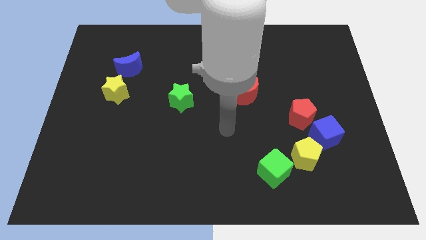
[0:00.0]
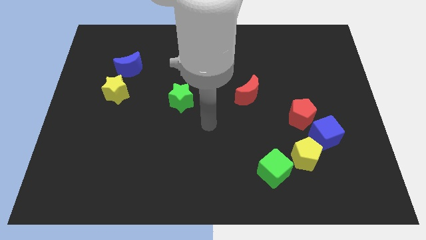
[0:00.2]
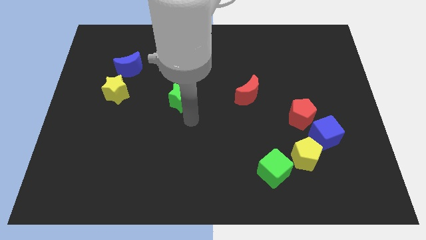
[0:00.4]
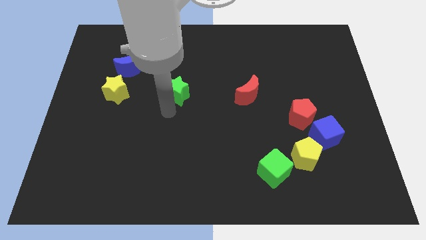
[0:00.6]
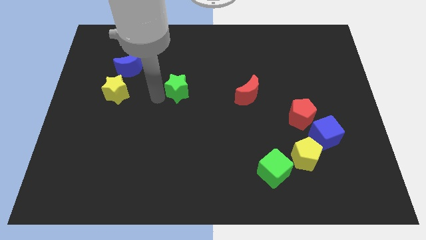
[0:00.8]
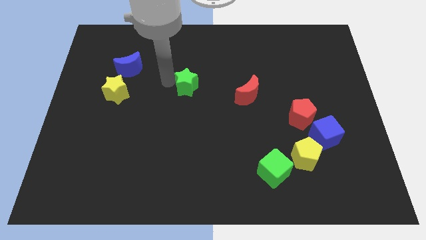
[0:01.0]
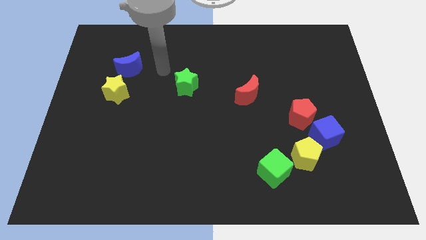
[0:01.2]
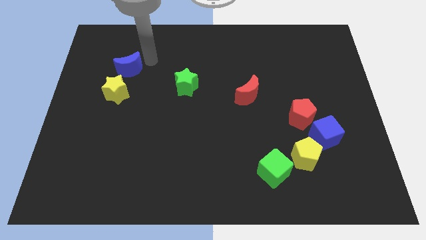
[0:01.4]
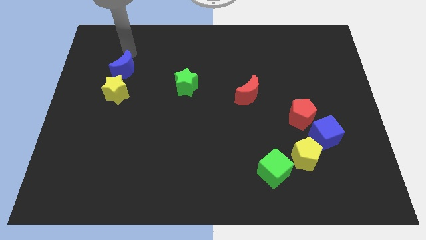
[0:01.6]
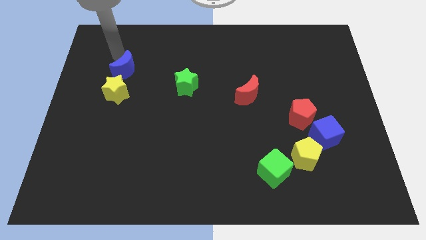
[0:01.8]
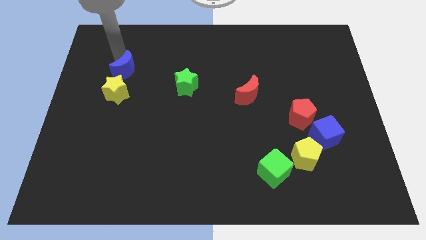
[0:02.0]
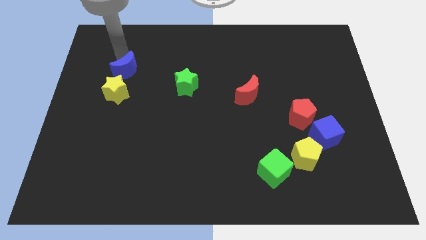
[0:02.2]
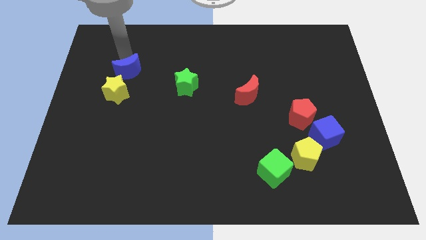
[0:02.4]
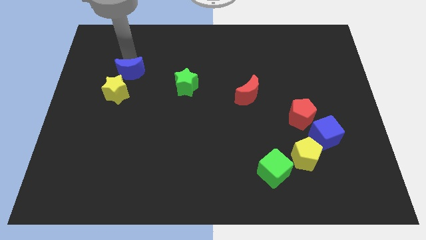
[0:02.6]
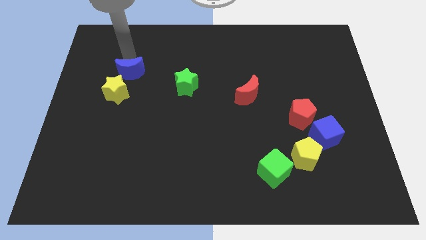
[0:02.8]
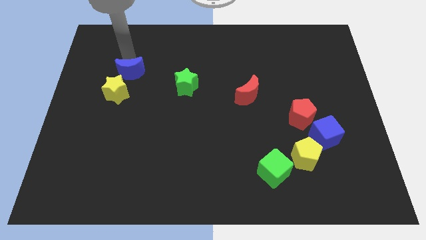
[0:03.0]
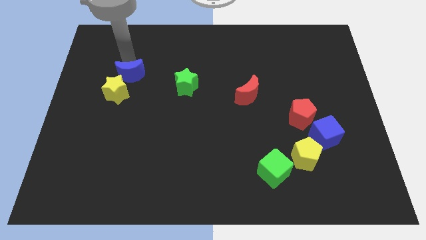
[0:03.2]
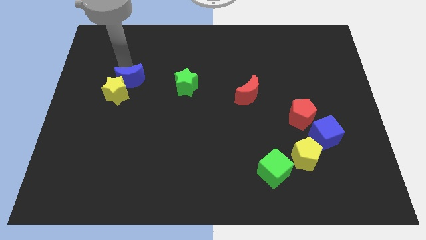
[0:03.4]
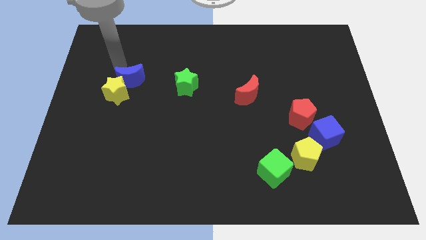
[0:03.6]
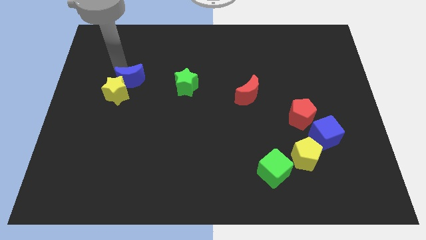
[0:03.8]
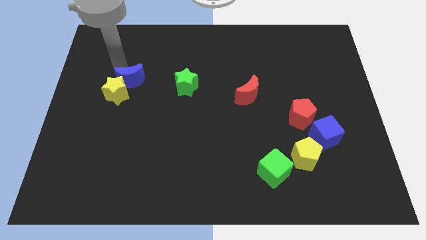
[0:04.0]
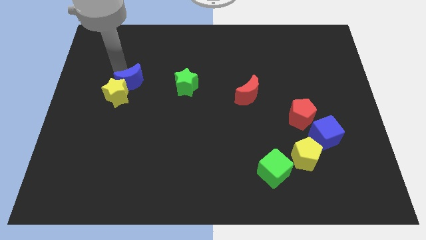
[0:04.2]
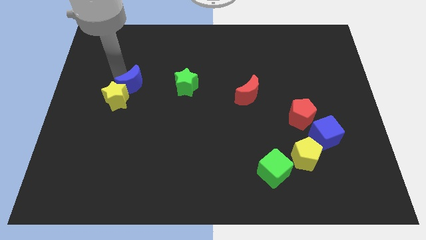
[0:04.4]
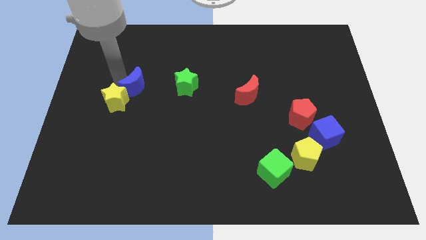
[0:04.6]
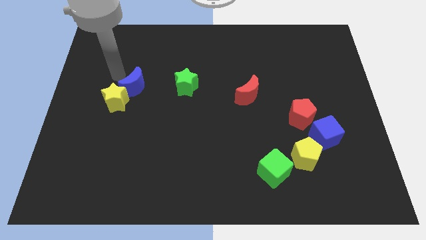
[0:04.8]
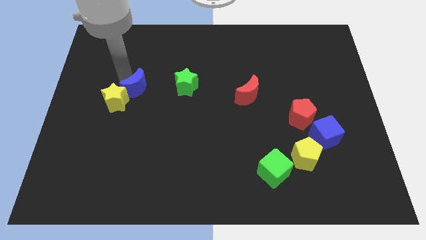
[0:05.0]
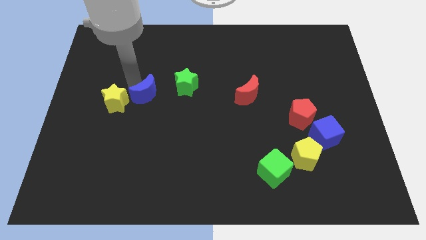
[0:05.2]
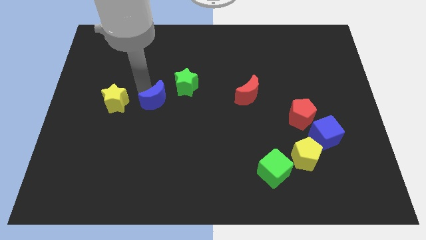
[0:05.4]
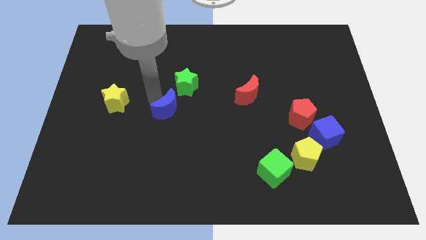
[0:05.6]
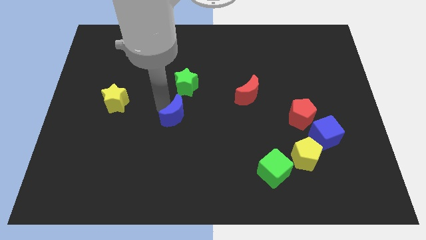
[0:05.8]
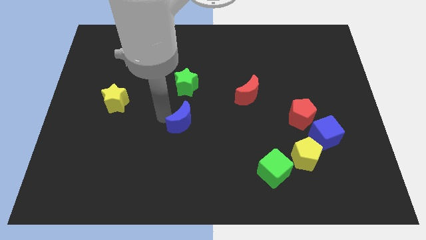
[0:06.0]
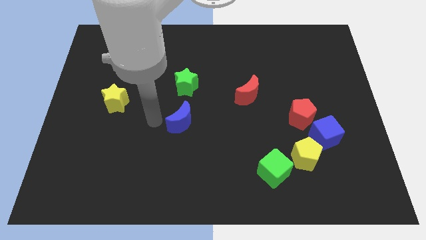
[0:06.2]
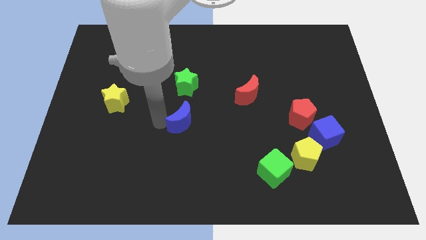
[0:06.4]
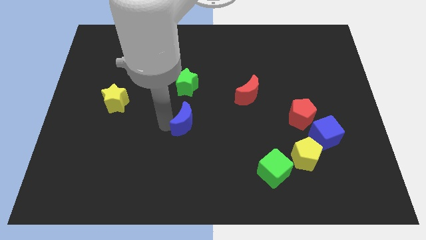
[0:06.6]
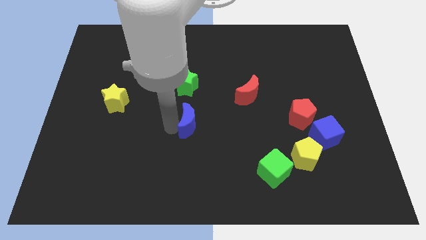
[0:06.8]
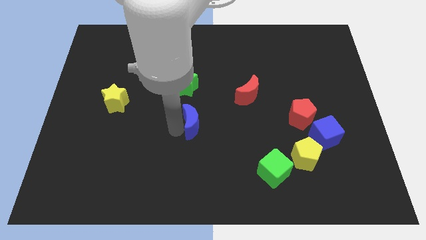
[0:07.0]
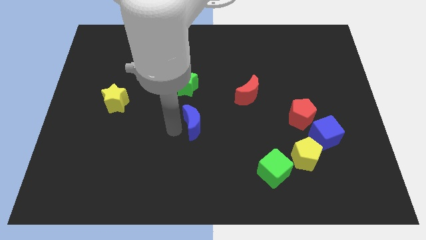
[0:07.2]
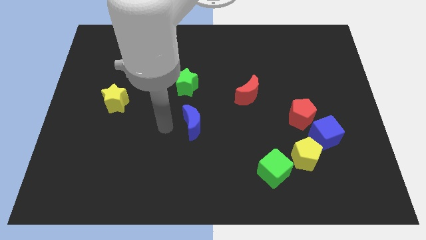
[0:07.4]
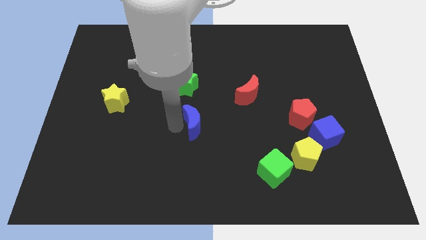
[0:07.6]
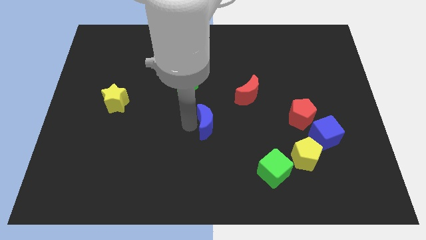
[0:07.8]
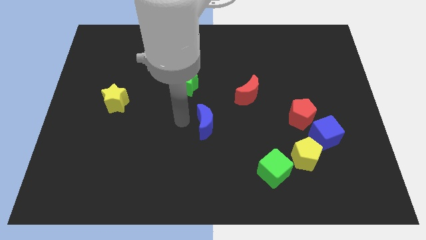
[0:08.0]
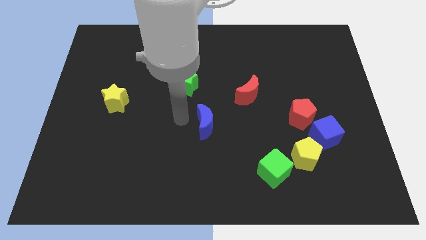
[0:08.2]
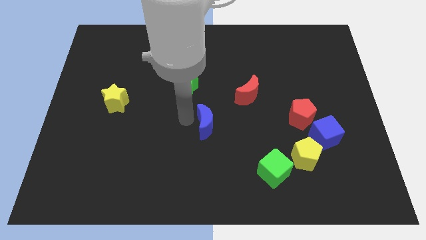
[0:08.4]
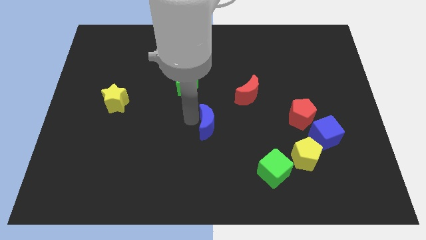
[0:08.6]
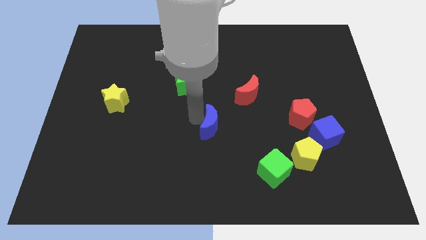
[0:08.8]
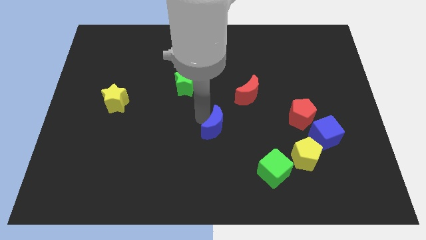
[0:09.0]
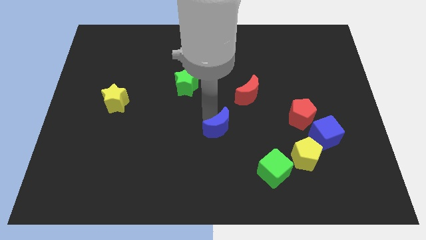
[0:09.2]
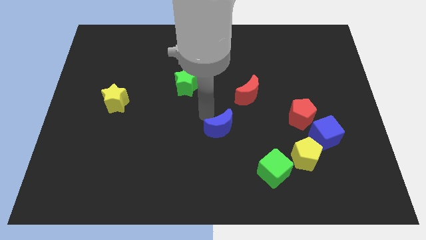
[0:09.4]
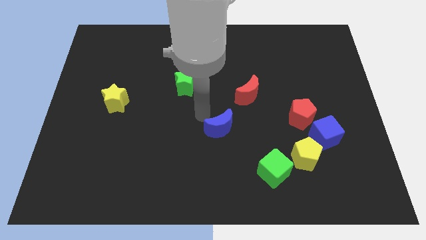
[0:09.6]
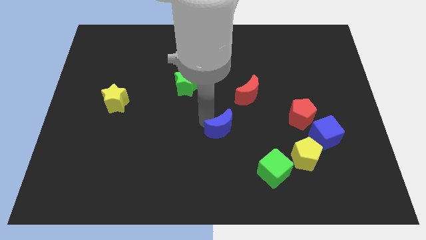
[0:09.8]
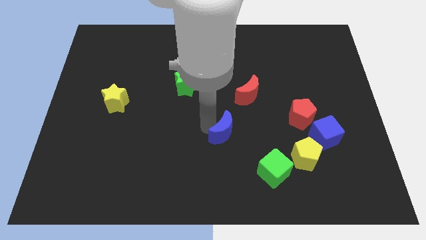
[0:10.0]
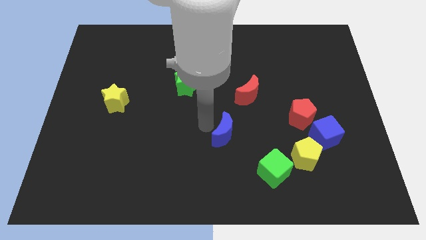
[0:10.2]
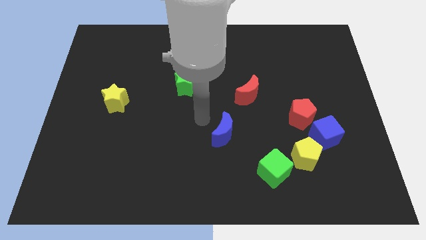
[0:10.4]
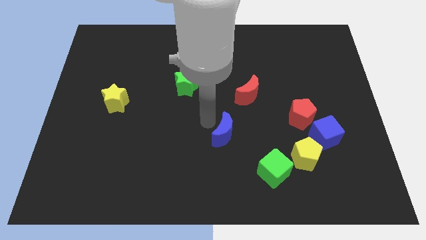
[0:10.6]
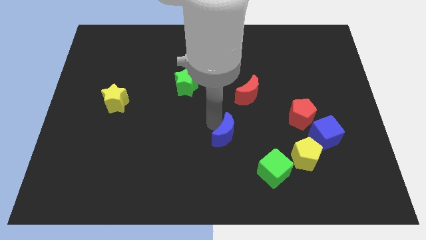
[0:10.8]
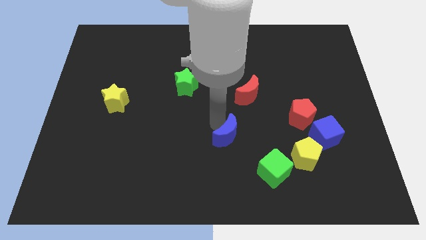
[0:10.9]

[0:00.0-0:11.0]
push the blue moon to the top left side of the green cube

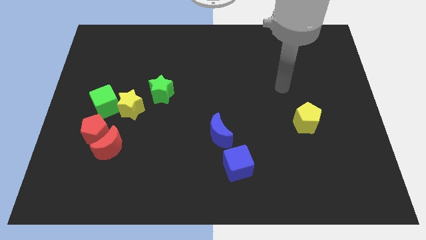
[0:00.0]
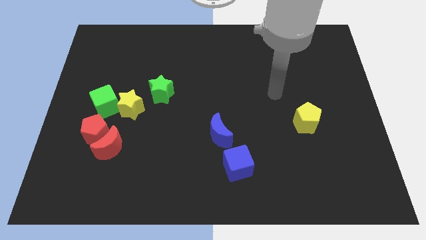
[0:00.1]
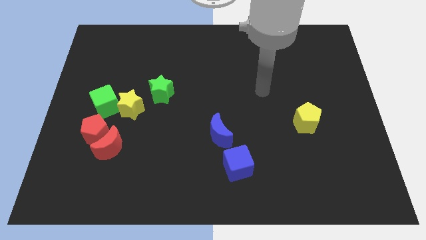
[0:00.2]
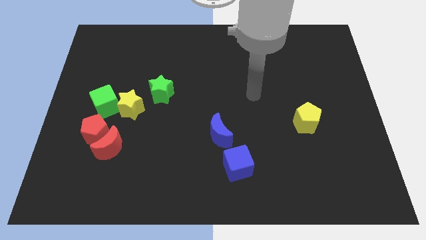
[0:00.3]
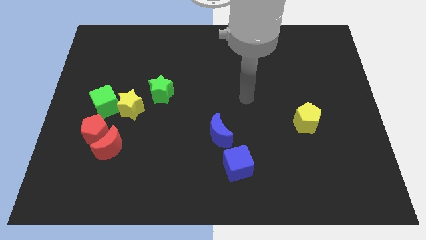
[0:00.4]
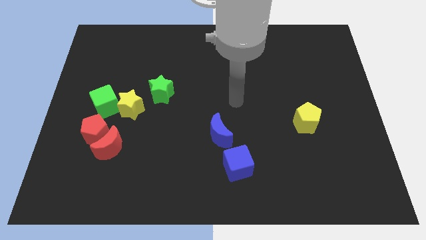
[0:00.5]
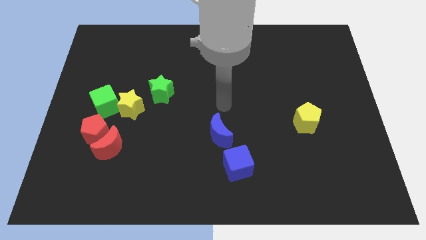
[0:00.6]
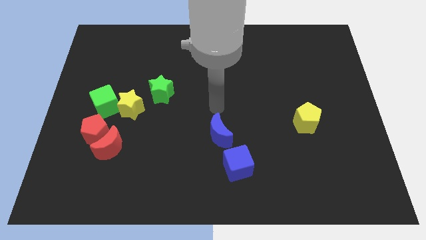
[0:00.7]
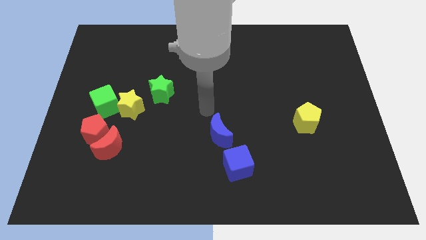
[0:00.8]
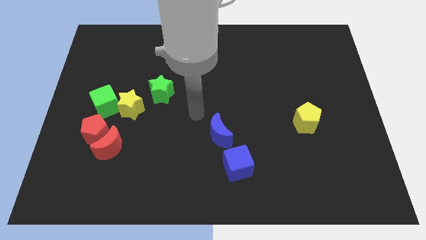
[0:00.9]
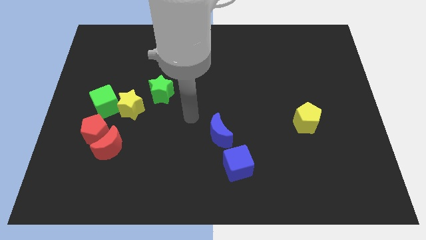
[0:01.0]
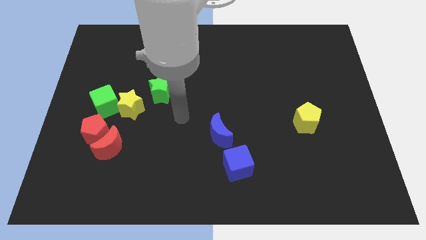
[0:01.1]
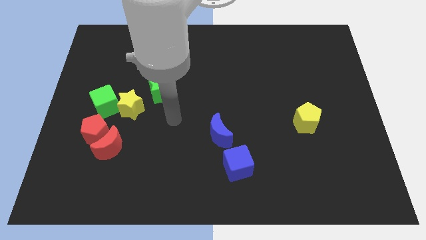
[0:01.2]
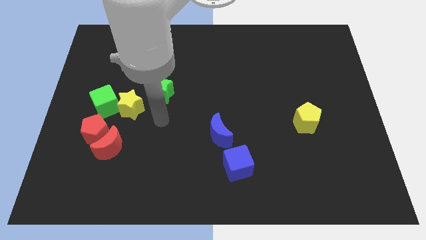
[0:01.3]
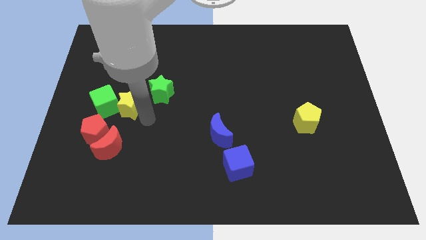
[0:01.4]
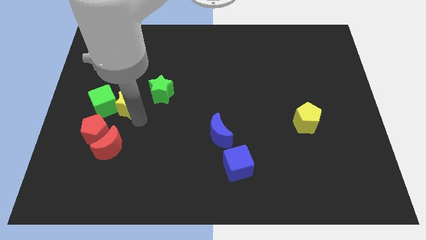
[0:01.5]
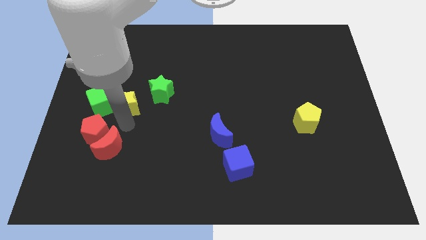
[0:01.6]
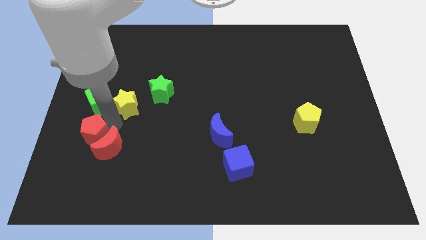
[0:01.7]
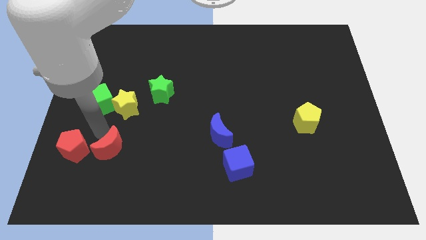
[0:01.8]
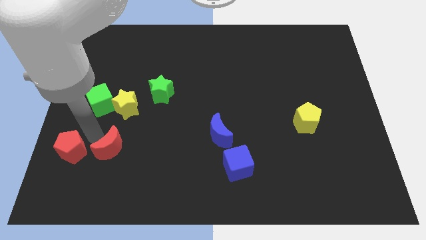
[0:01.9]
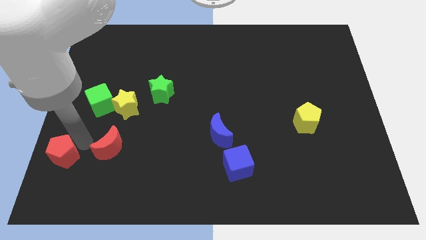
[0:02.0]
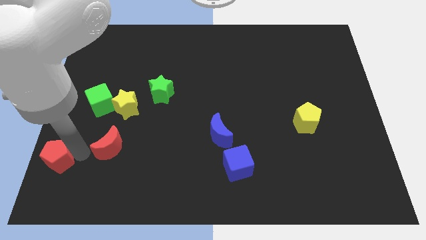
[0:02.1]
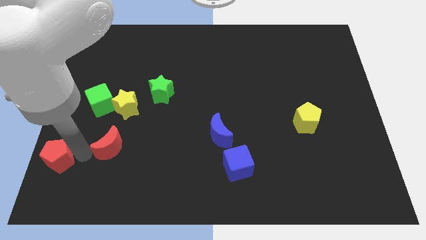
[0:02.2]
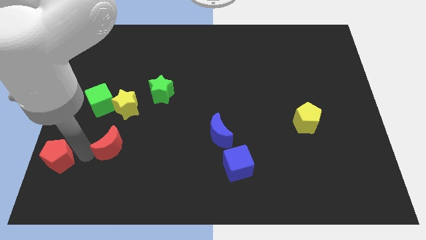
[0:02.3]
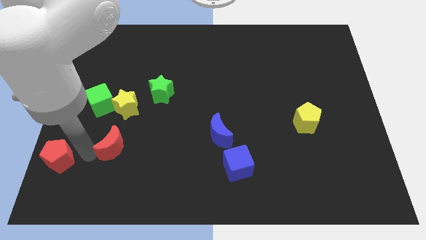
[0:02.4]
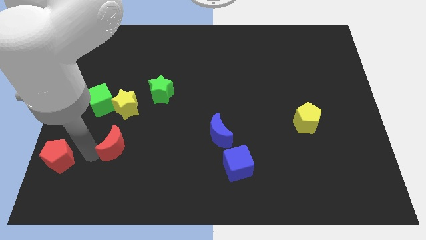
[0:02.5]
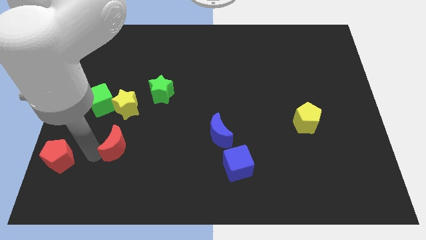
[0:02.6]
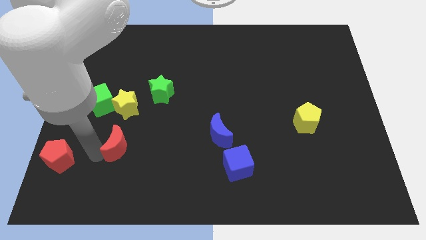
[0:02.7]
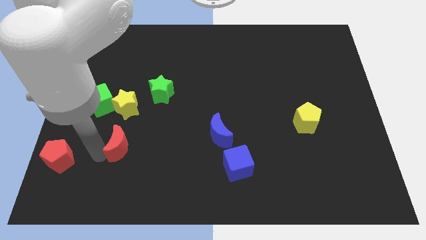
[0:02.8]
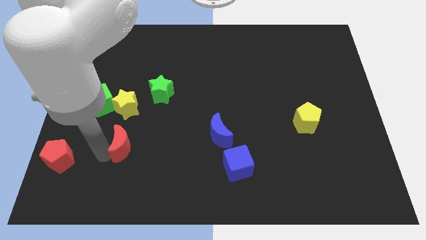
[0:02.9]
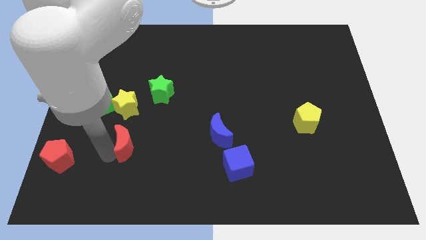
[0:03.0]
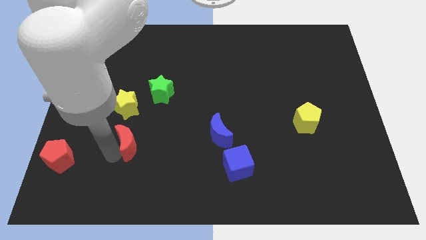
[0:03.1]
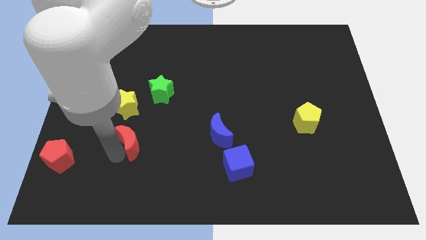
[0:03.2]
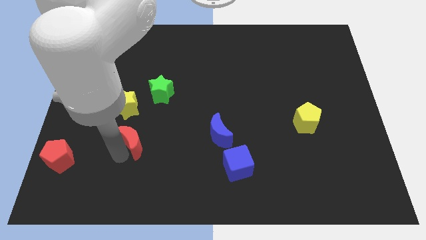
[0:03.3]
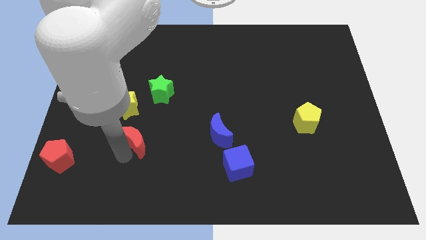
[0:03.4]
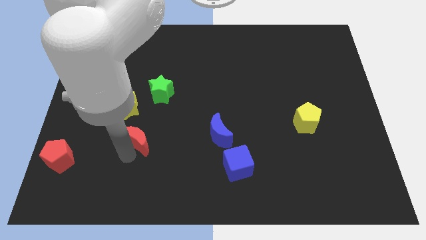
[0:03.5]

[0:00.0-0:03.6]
move the red moon to the bottom of the green star
